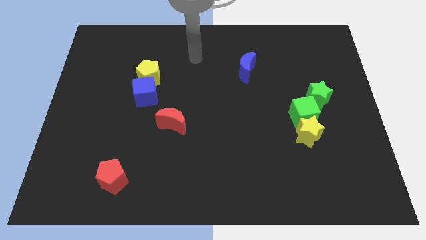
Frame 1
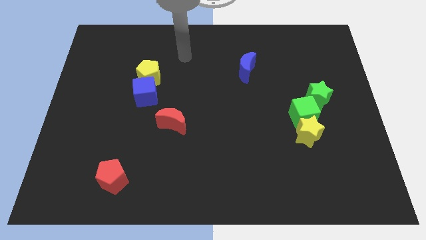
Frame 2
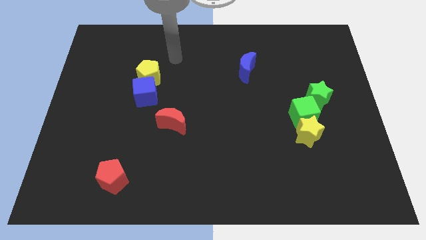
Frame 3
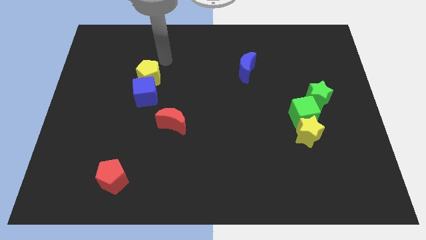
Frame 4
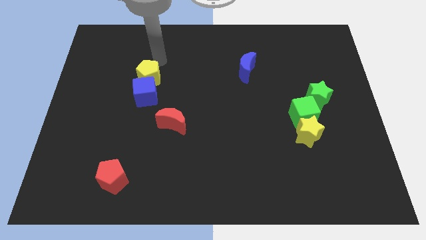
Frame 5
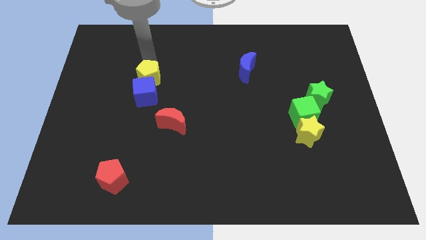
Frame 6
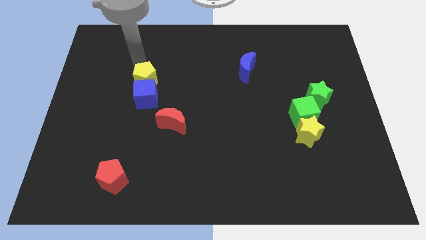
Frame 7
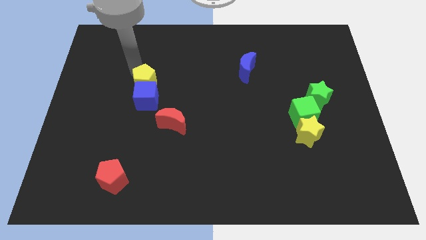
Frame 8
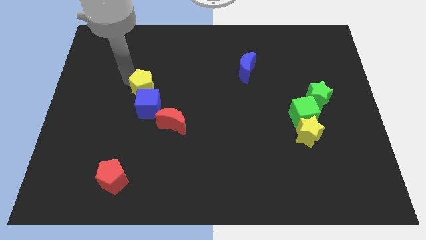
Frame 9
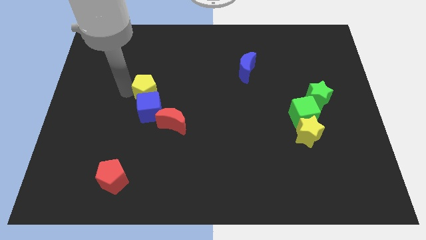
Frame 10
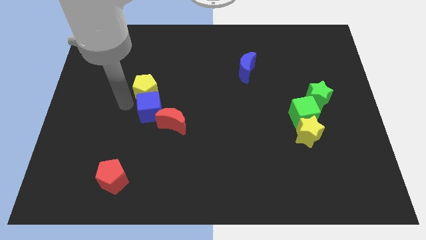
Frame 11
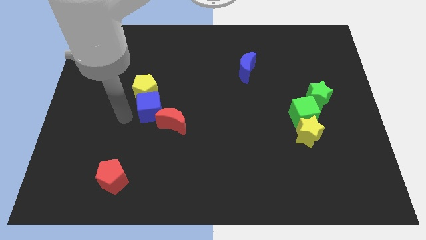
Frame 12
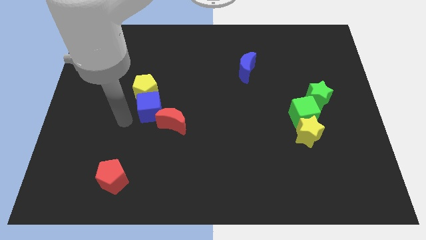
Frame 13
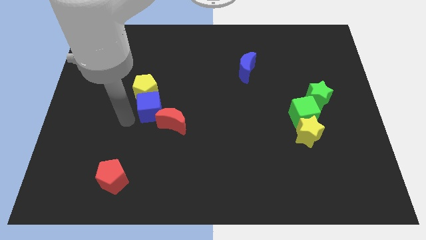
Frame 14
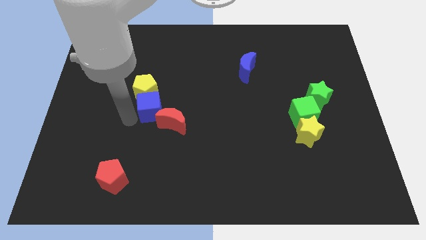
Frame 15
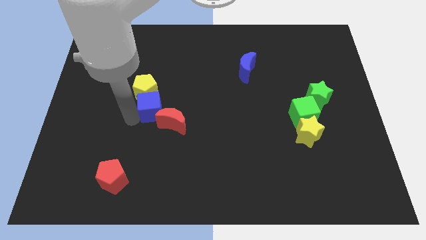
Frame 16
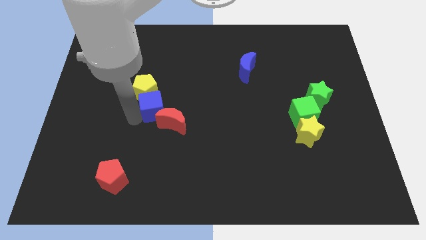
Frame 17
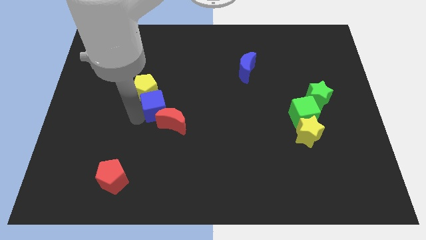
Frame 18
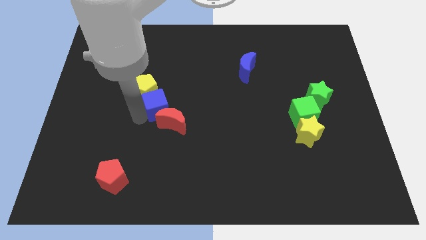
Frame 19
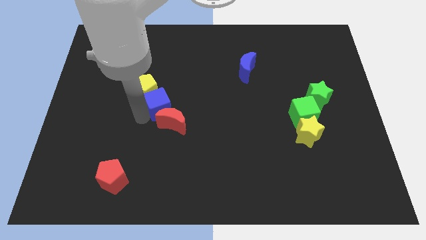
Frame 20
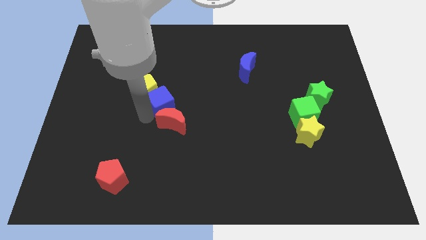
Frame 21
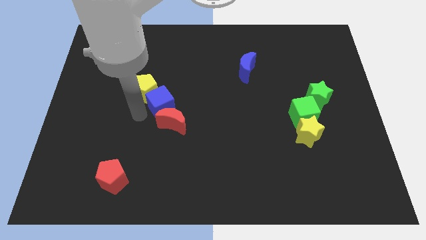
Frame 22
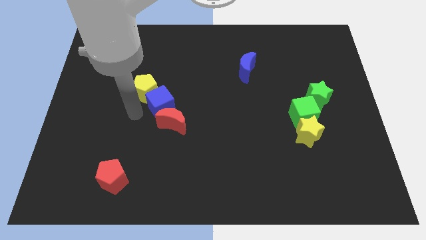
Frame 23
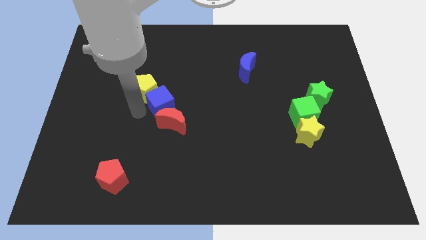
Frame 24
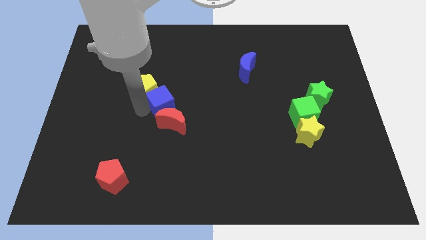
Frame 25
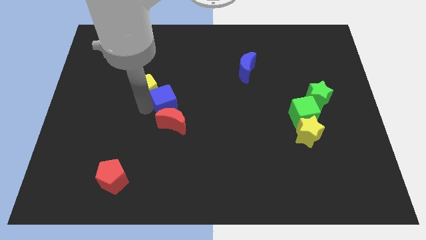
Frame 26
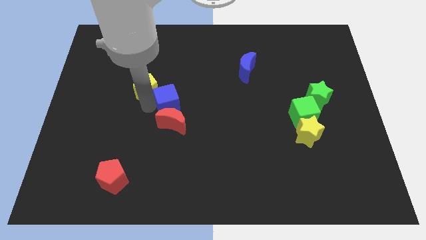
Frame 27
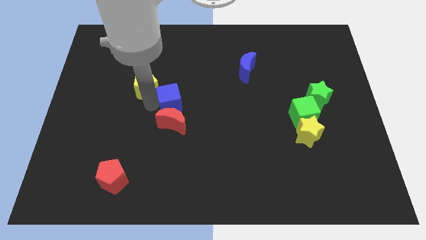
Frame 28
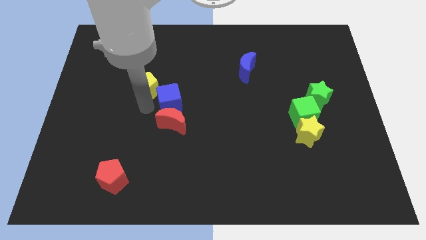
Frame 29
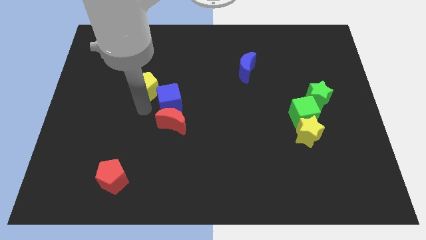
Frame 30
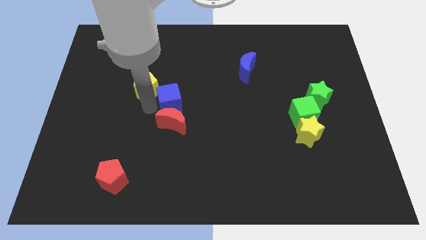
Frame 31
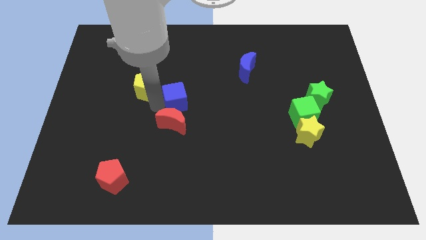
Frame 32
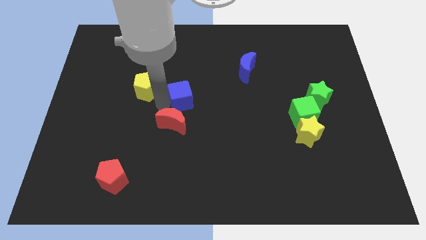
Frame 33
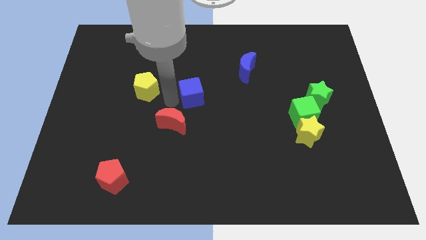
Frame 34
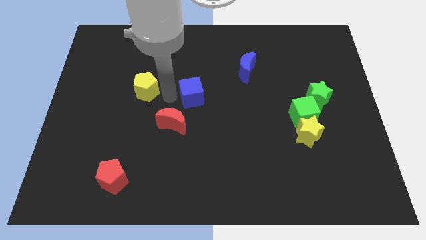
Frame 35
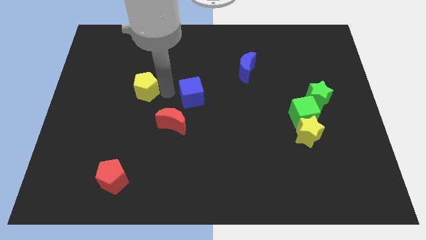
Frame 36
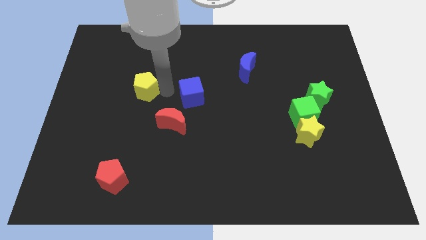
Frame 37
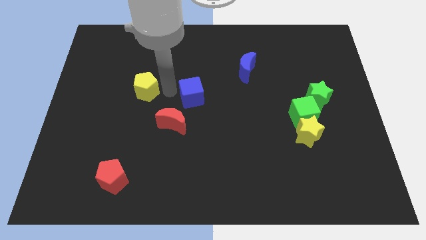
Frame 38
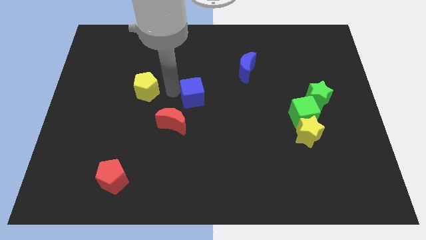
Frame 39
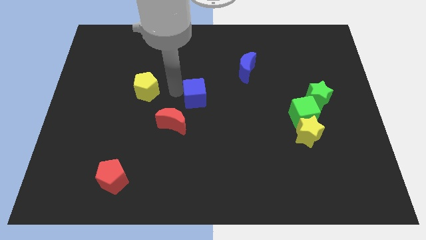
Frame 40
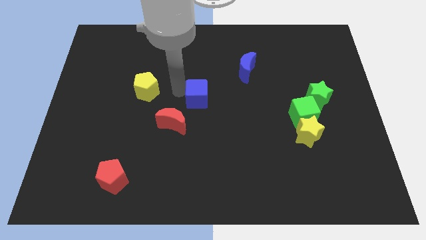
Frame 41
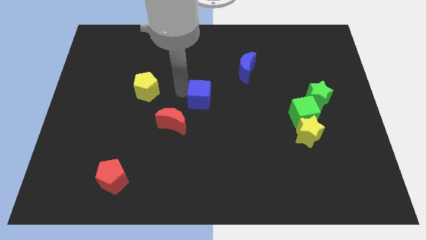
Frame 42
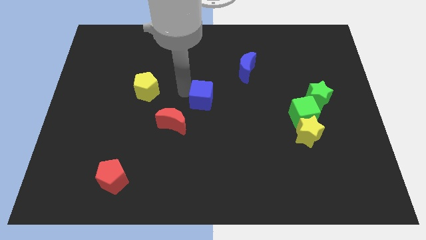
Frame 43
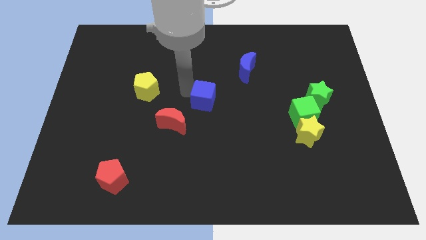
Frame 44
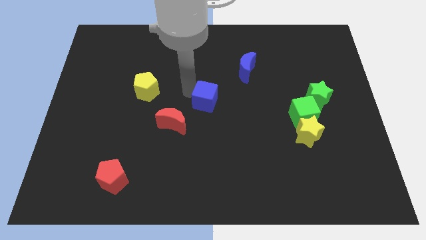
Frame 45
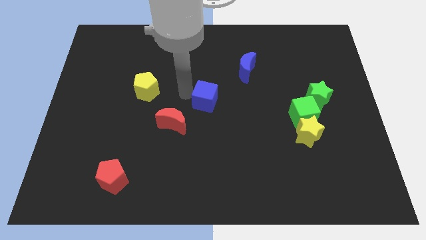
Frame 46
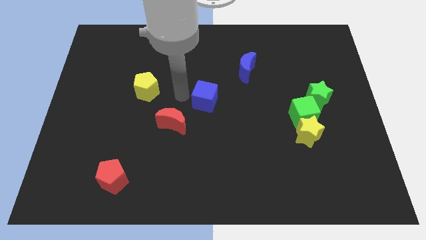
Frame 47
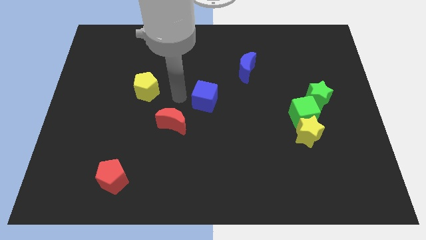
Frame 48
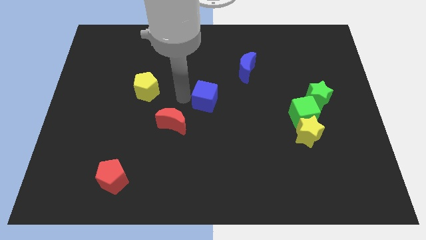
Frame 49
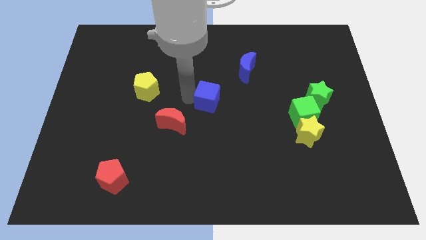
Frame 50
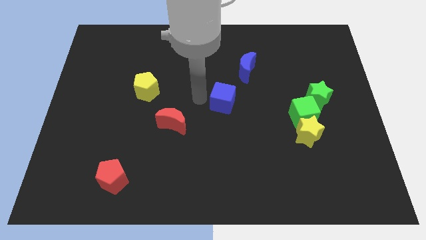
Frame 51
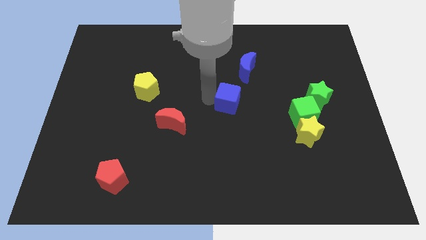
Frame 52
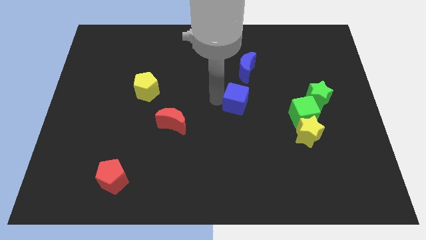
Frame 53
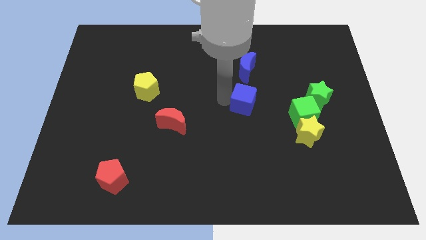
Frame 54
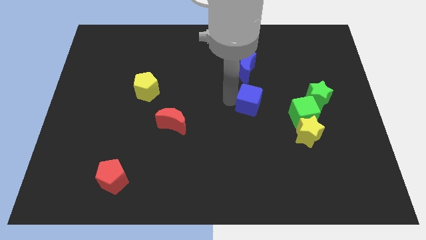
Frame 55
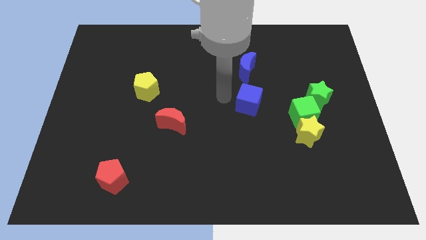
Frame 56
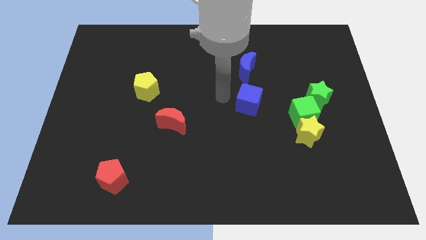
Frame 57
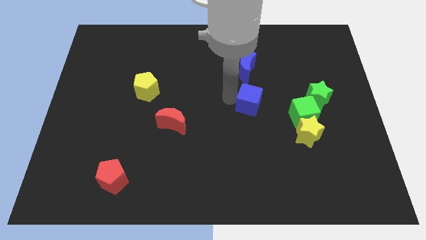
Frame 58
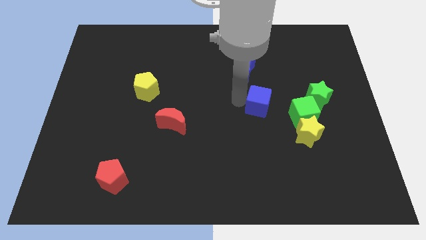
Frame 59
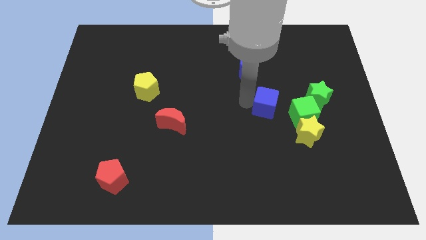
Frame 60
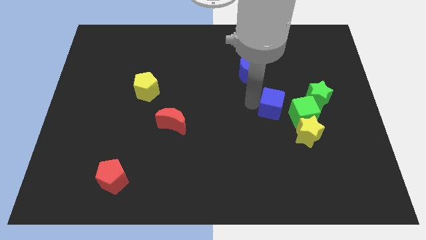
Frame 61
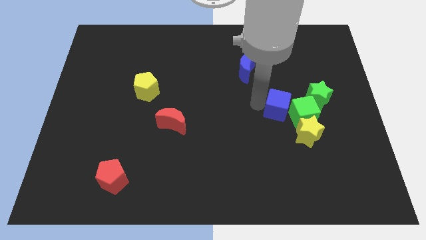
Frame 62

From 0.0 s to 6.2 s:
slide the blue cube close to the green cube

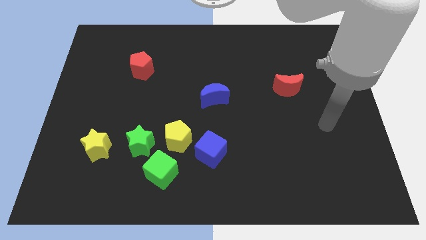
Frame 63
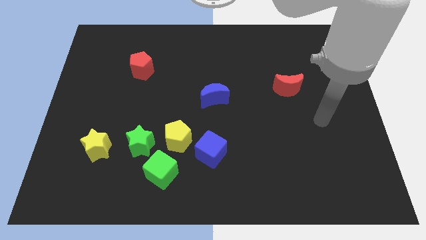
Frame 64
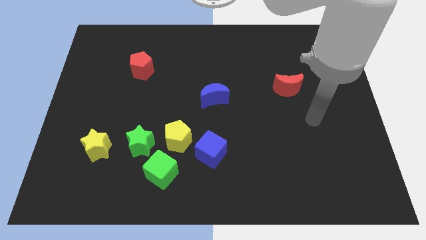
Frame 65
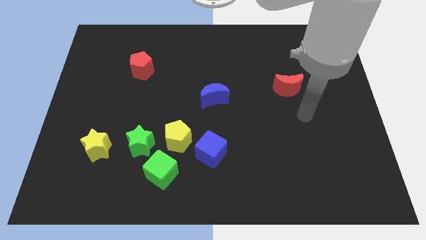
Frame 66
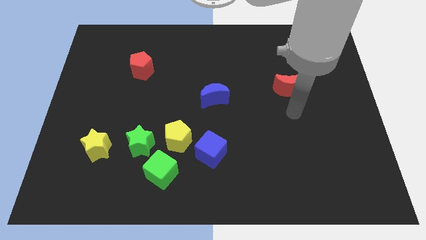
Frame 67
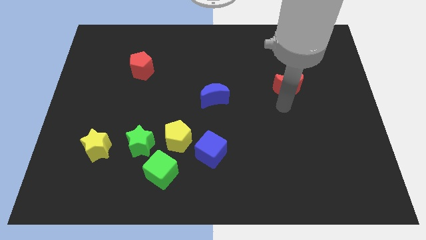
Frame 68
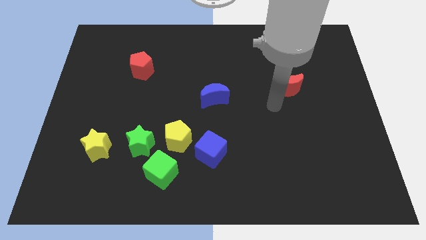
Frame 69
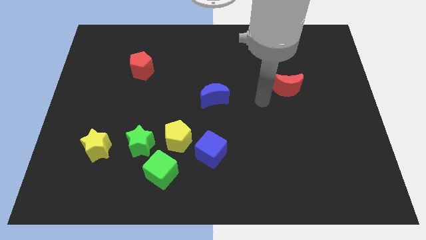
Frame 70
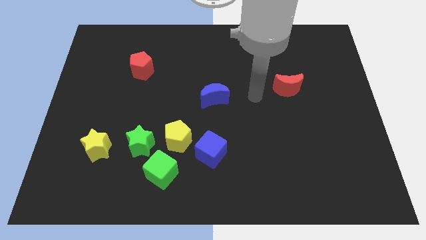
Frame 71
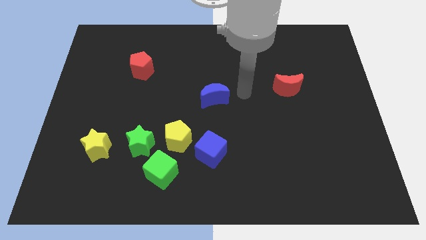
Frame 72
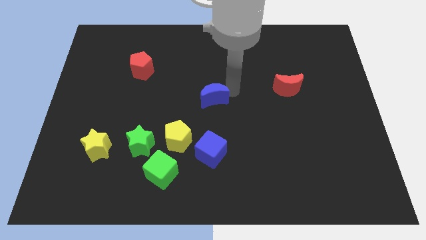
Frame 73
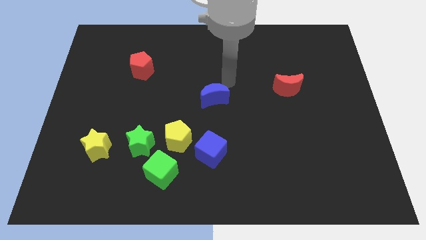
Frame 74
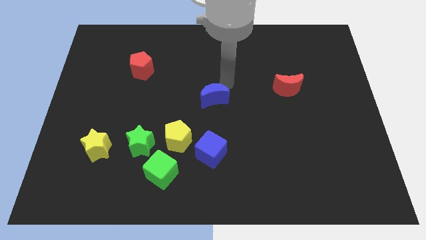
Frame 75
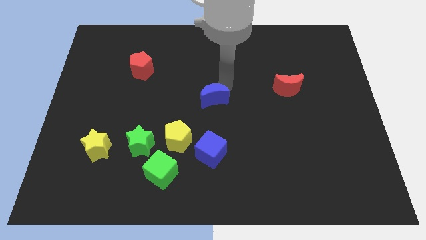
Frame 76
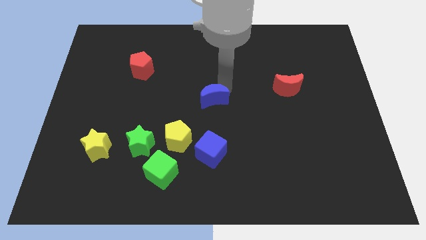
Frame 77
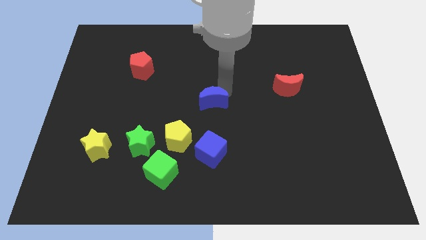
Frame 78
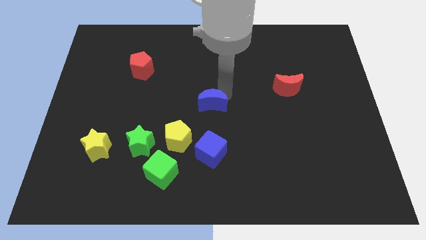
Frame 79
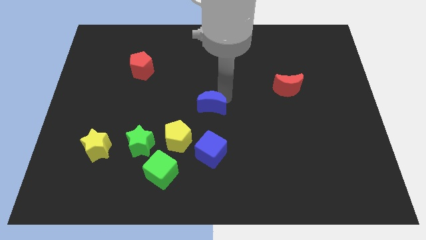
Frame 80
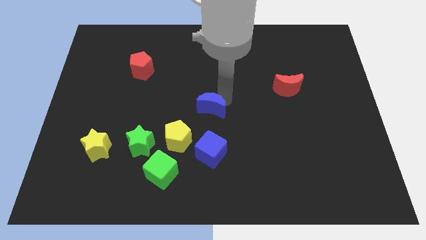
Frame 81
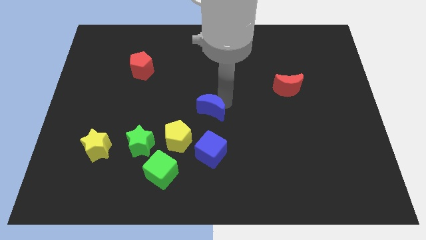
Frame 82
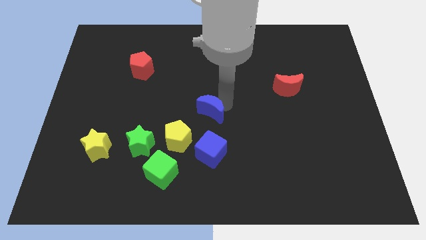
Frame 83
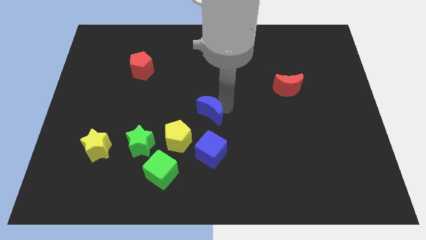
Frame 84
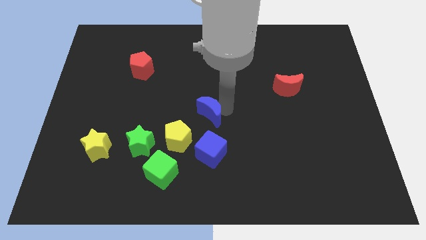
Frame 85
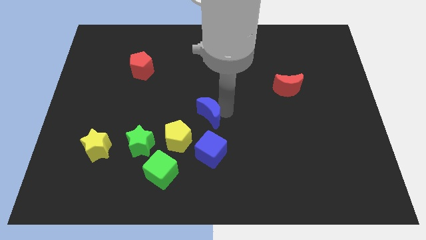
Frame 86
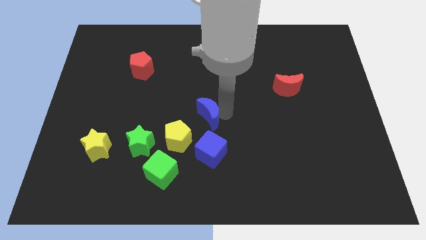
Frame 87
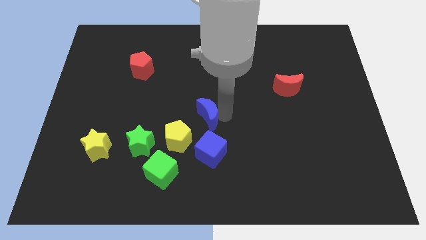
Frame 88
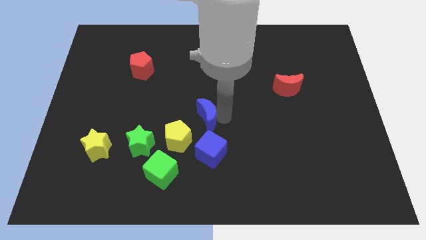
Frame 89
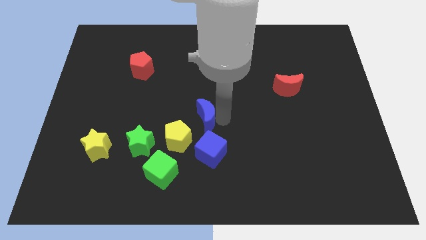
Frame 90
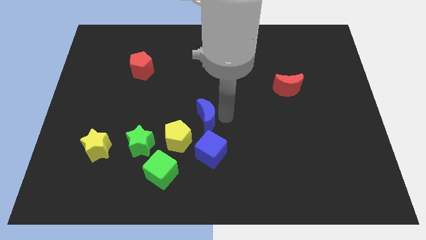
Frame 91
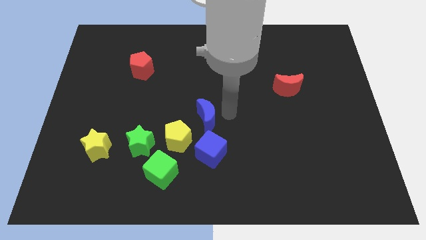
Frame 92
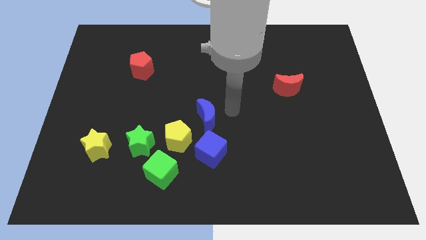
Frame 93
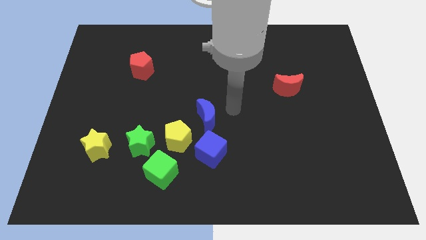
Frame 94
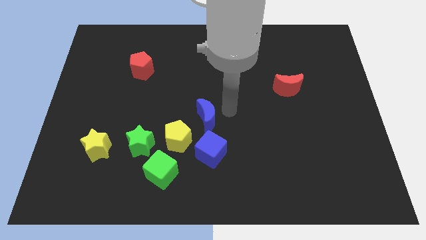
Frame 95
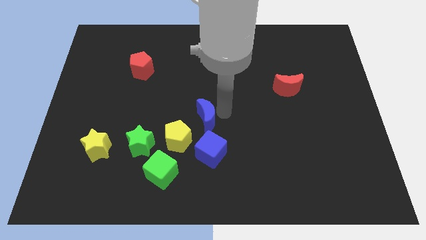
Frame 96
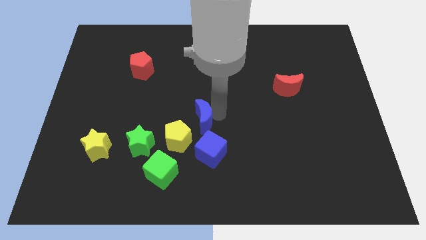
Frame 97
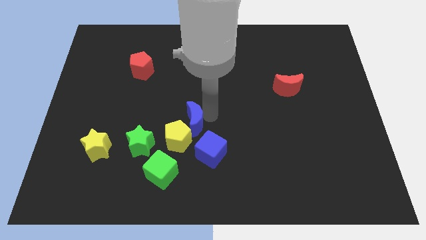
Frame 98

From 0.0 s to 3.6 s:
put the blue moon to the yellow pentagon
